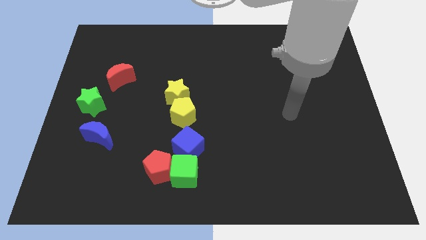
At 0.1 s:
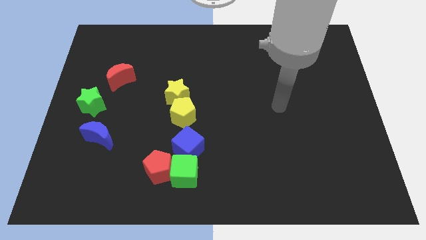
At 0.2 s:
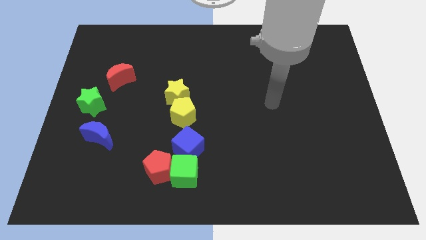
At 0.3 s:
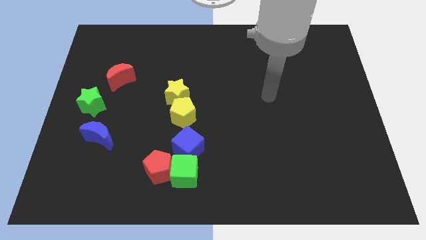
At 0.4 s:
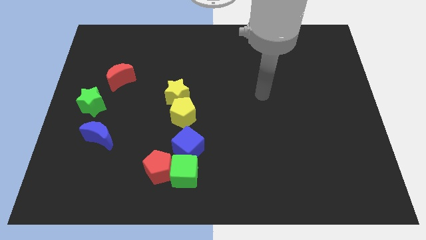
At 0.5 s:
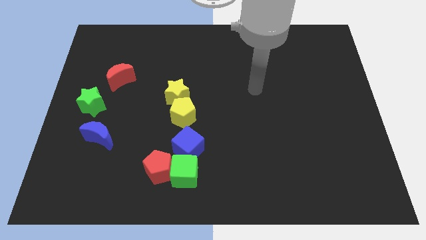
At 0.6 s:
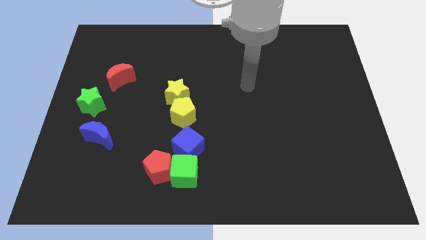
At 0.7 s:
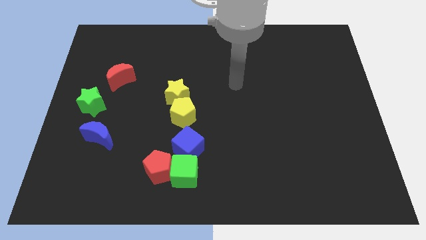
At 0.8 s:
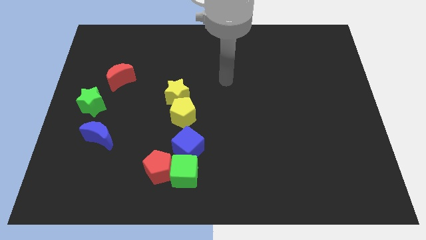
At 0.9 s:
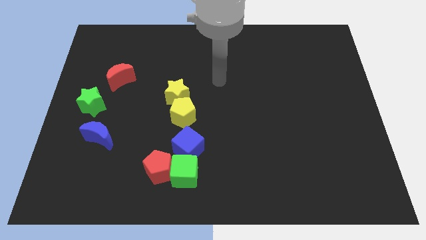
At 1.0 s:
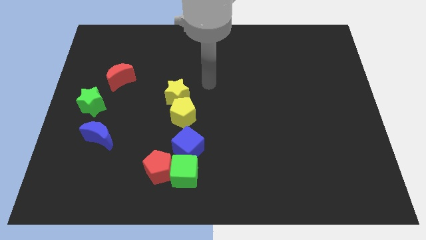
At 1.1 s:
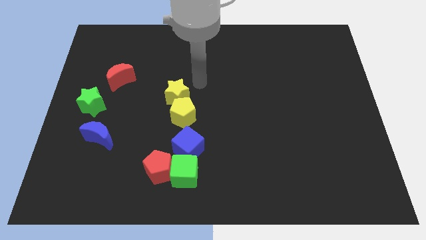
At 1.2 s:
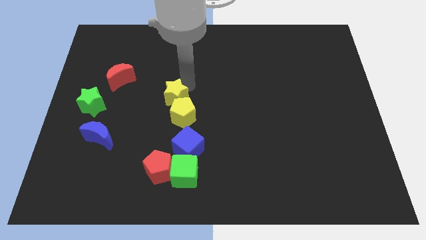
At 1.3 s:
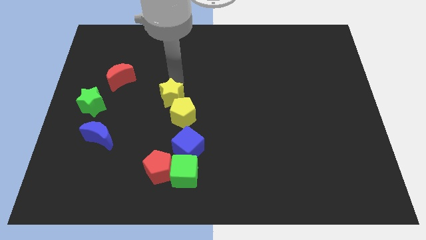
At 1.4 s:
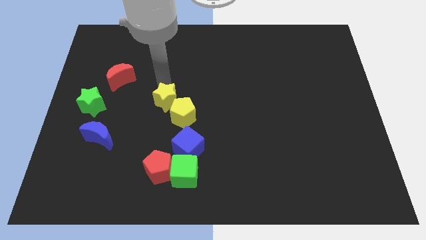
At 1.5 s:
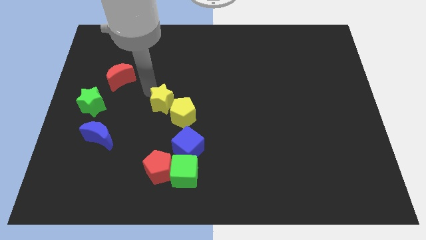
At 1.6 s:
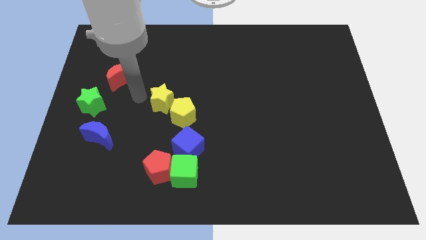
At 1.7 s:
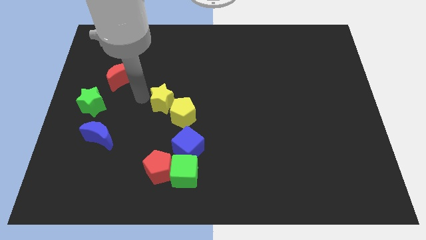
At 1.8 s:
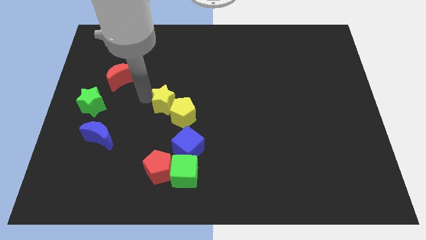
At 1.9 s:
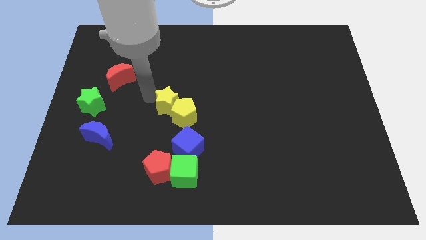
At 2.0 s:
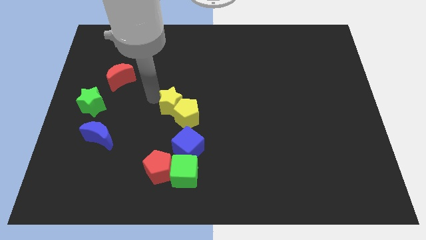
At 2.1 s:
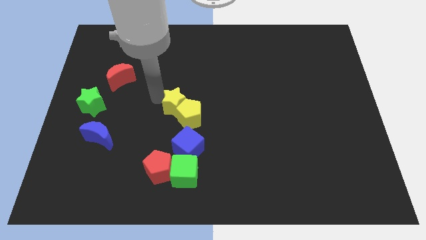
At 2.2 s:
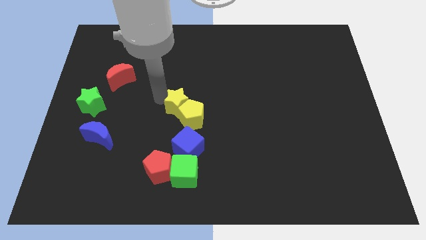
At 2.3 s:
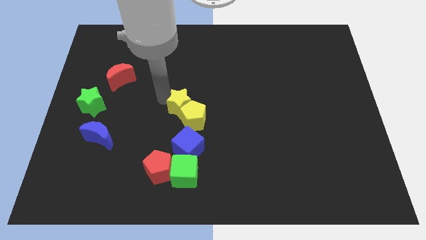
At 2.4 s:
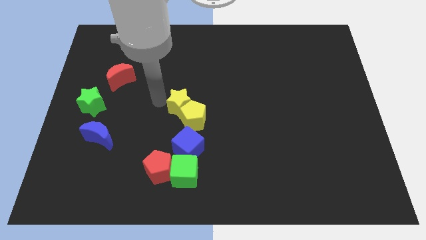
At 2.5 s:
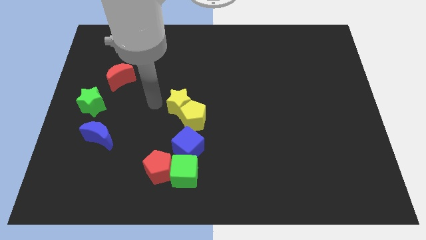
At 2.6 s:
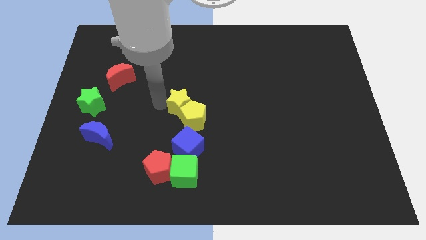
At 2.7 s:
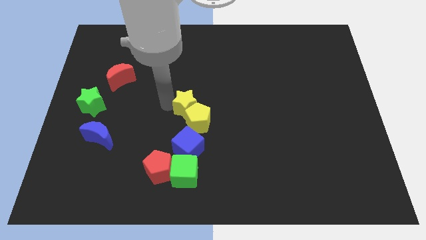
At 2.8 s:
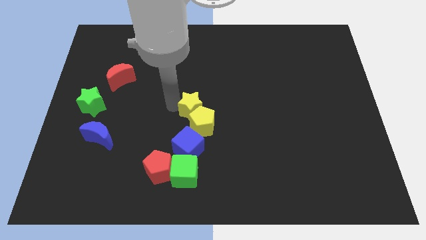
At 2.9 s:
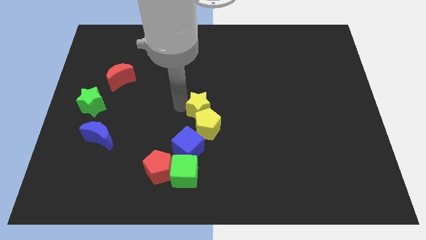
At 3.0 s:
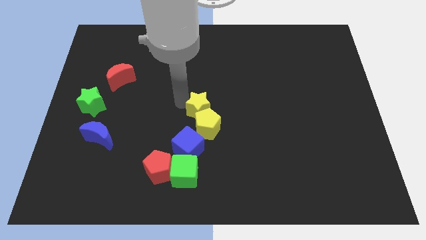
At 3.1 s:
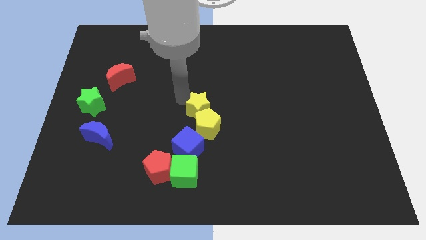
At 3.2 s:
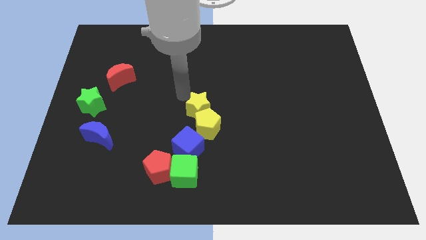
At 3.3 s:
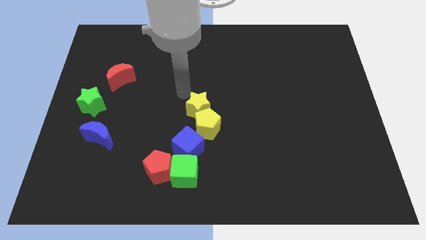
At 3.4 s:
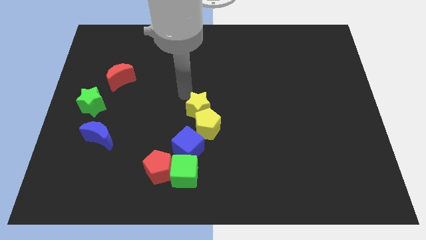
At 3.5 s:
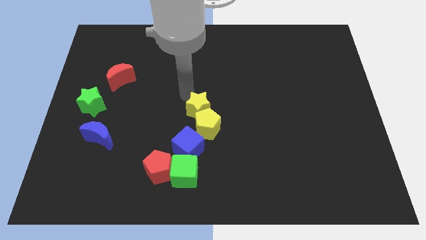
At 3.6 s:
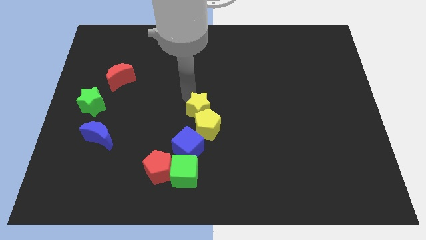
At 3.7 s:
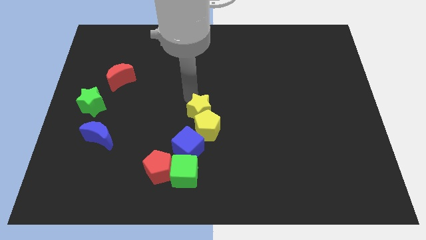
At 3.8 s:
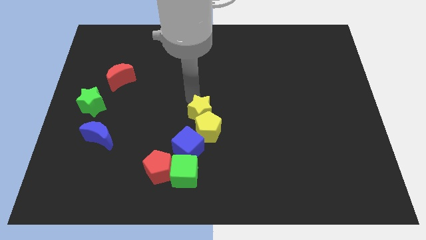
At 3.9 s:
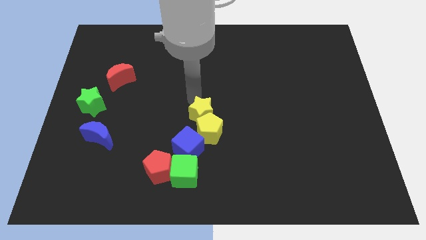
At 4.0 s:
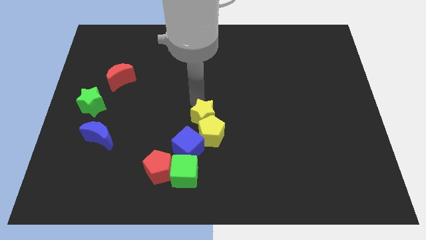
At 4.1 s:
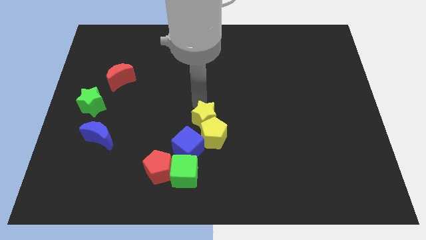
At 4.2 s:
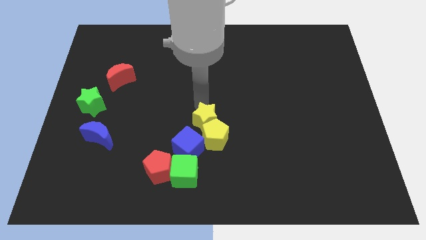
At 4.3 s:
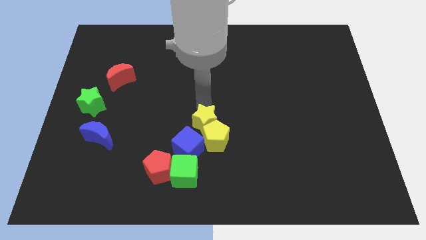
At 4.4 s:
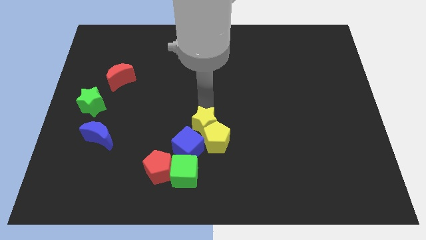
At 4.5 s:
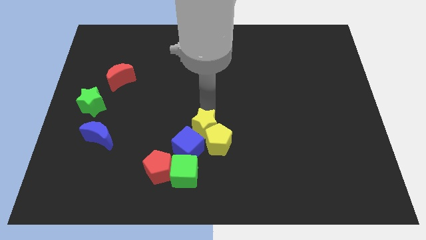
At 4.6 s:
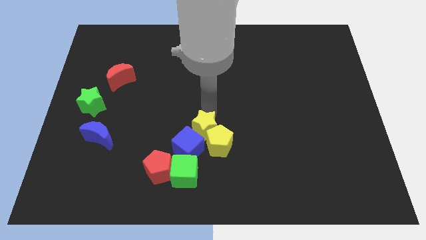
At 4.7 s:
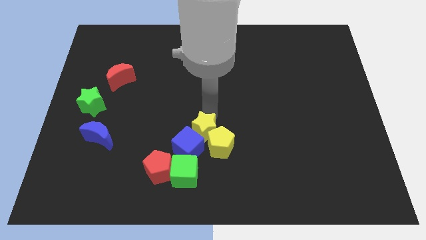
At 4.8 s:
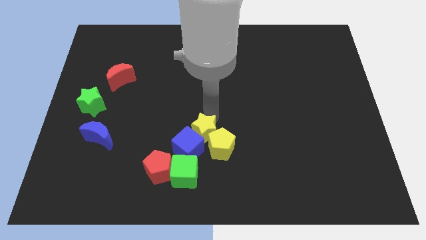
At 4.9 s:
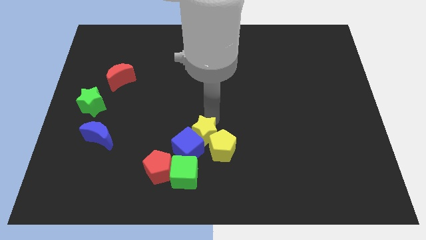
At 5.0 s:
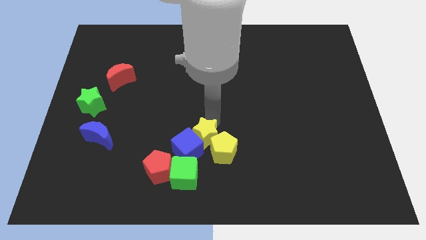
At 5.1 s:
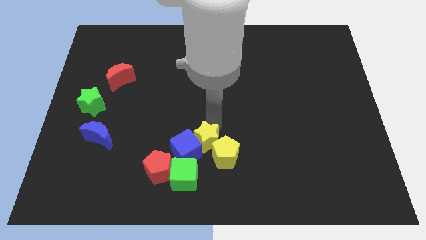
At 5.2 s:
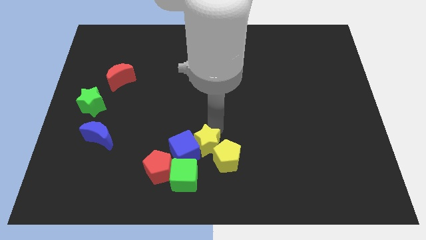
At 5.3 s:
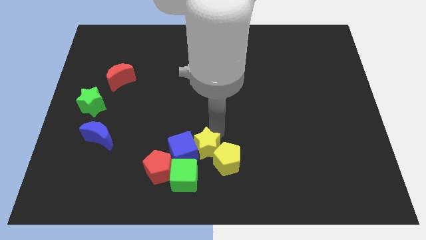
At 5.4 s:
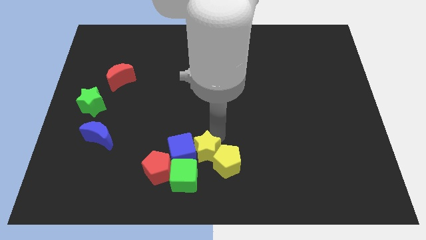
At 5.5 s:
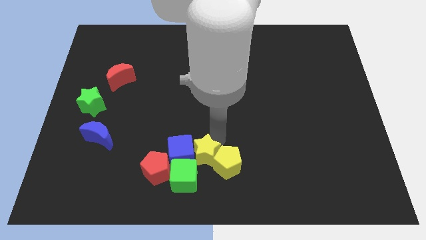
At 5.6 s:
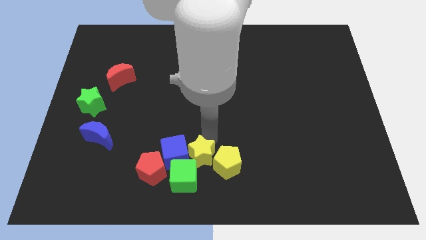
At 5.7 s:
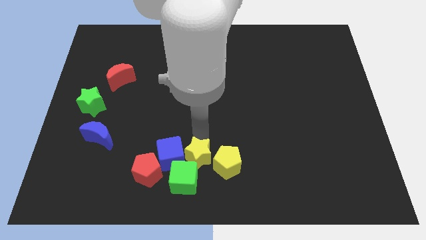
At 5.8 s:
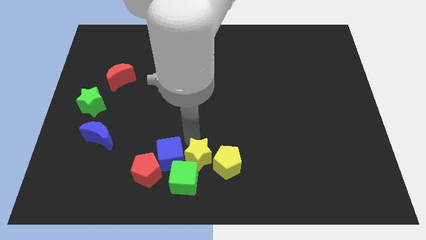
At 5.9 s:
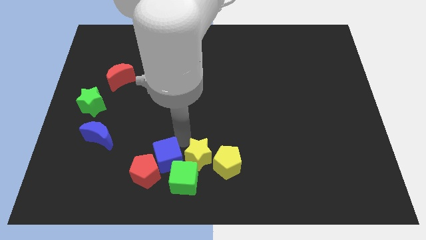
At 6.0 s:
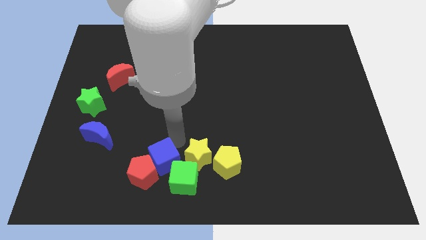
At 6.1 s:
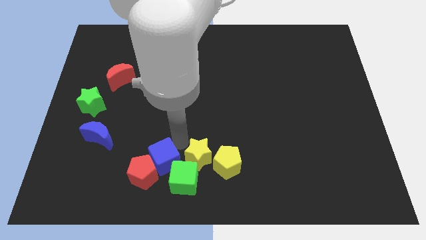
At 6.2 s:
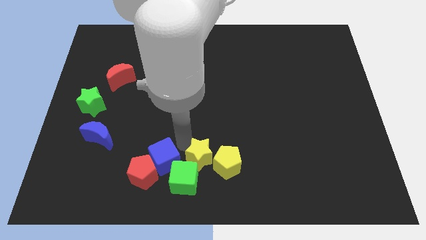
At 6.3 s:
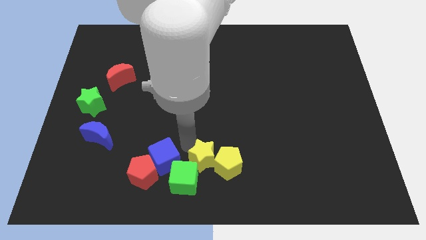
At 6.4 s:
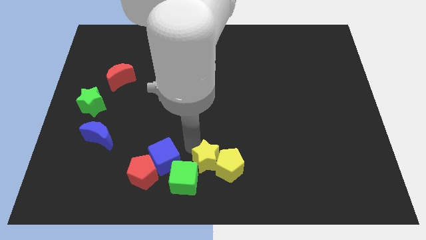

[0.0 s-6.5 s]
slide the yellow star to the right of the green cube

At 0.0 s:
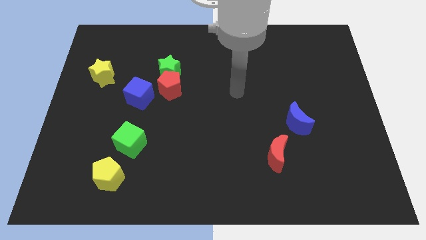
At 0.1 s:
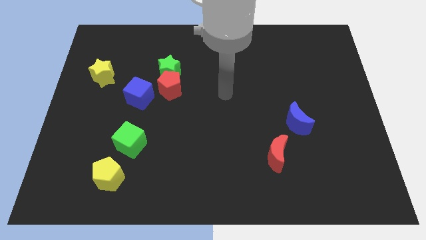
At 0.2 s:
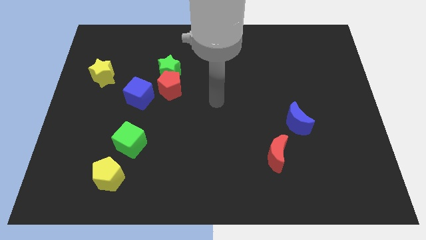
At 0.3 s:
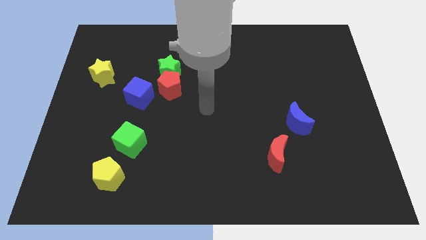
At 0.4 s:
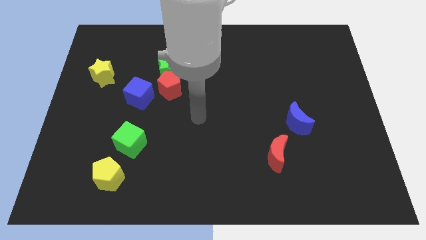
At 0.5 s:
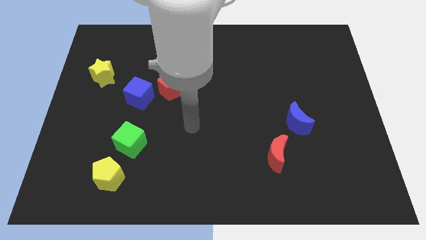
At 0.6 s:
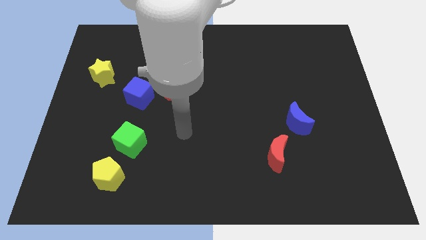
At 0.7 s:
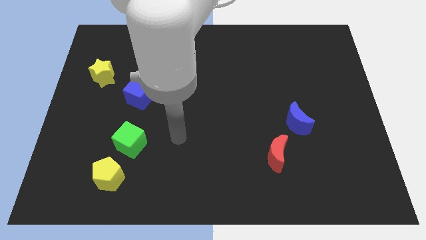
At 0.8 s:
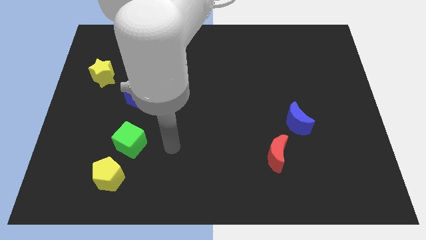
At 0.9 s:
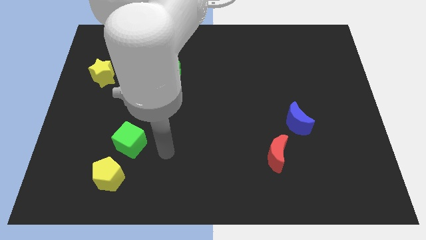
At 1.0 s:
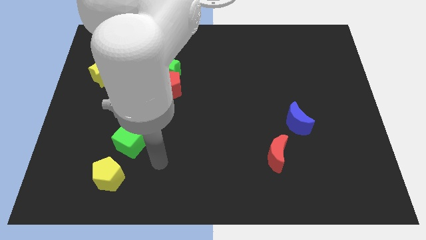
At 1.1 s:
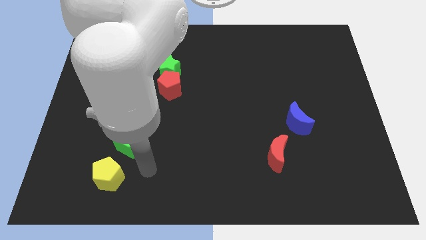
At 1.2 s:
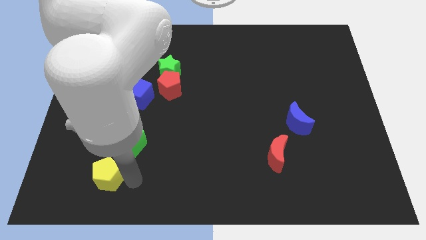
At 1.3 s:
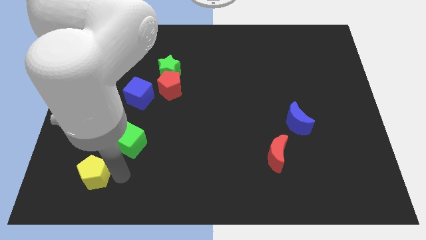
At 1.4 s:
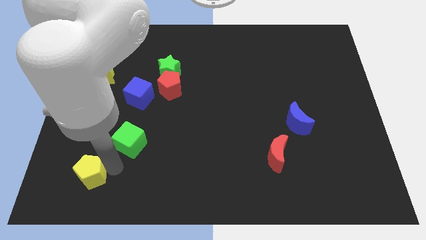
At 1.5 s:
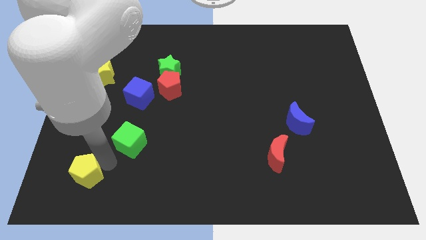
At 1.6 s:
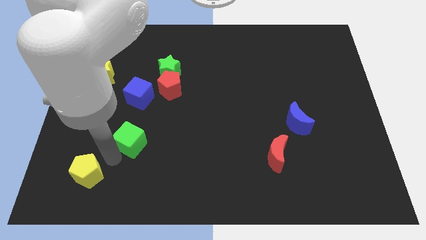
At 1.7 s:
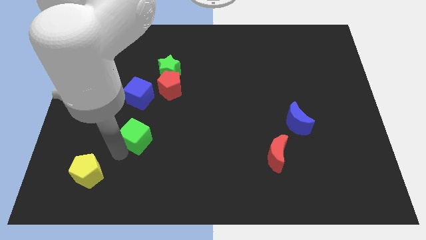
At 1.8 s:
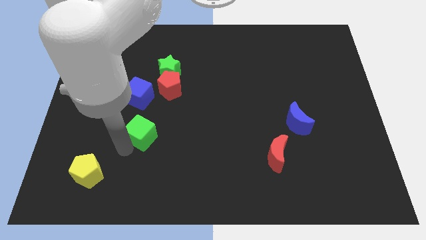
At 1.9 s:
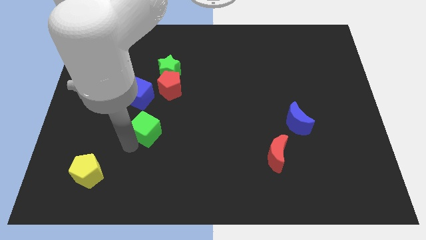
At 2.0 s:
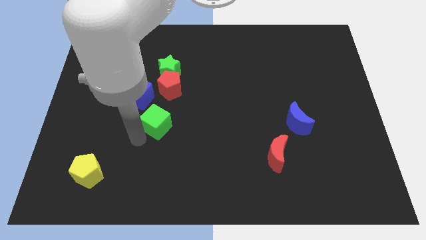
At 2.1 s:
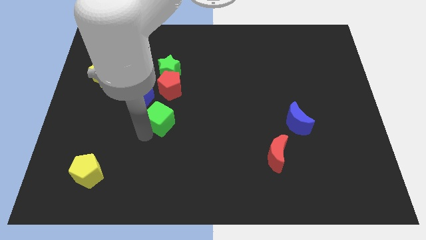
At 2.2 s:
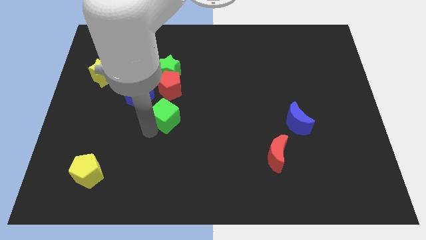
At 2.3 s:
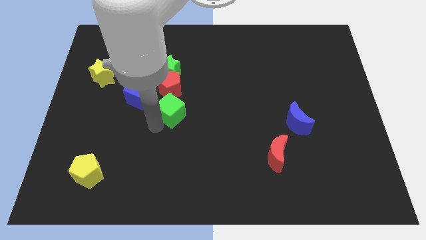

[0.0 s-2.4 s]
push the green cube diagonally down and to the right of the red pentagon
